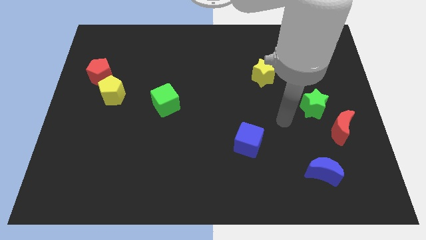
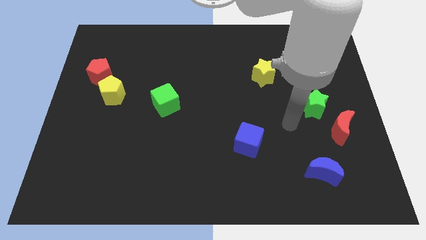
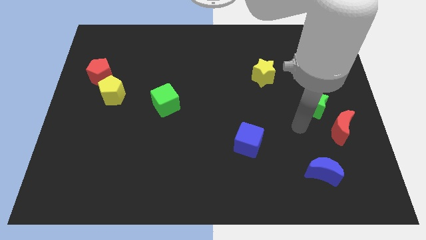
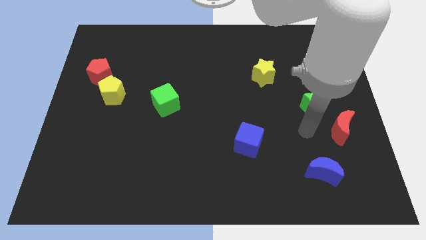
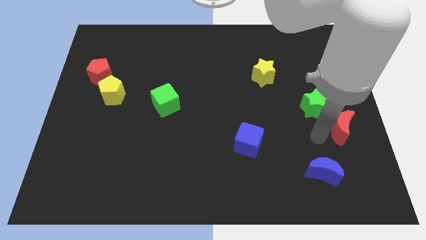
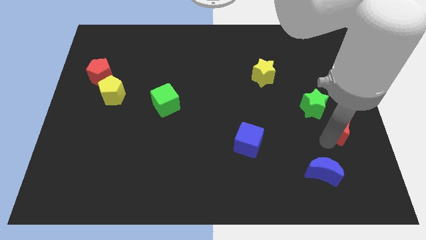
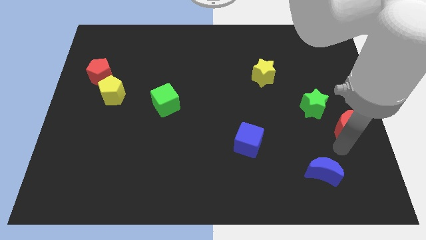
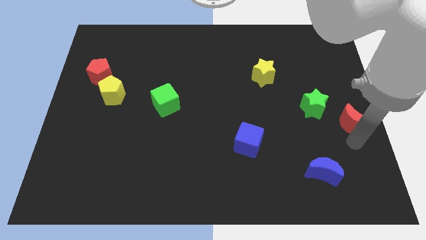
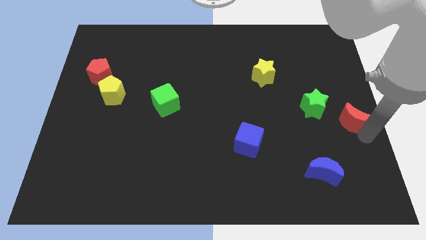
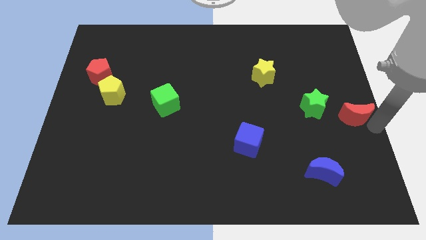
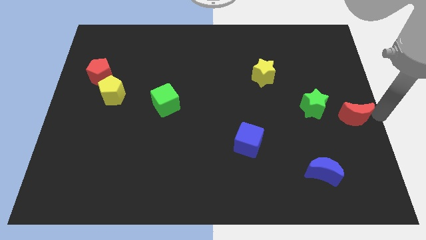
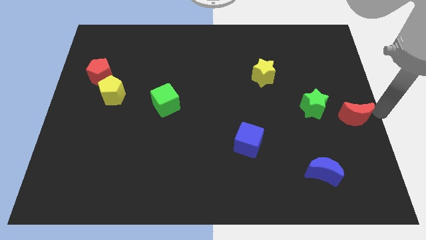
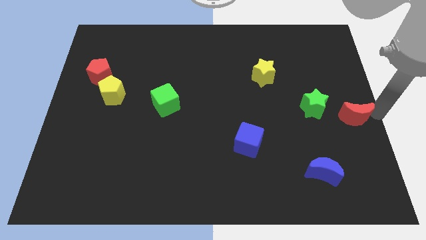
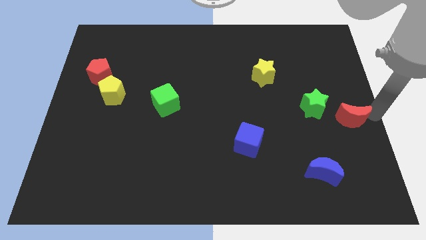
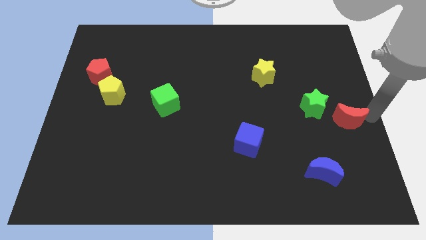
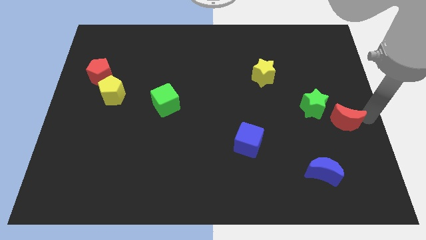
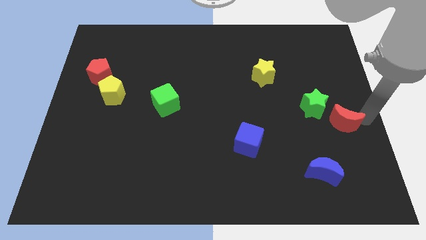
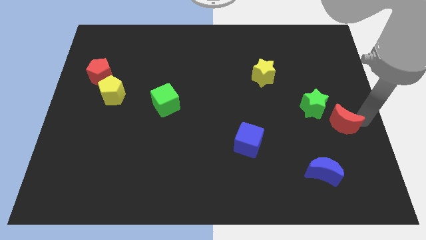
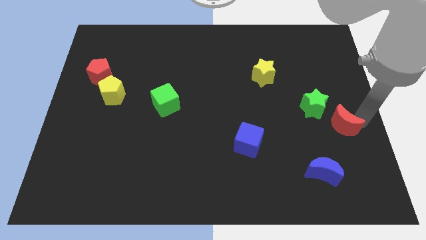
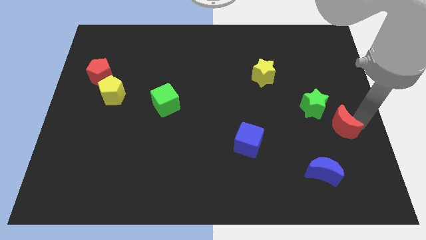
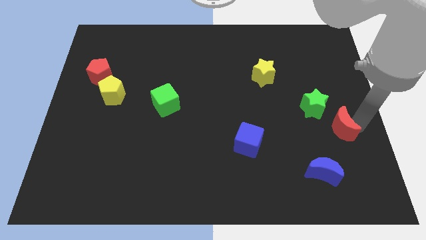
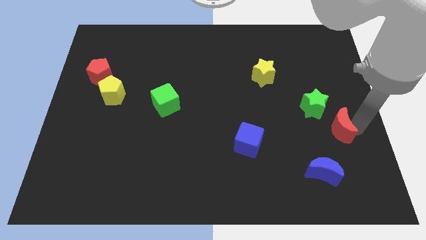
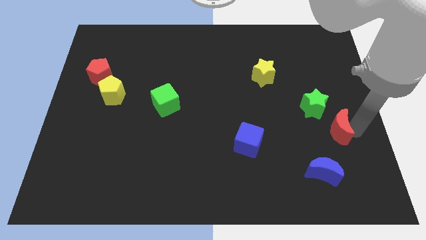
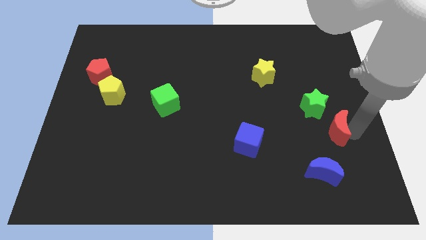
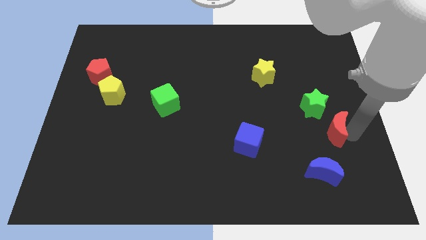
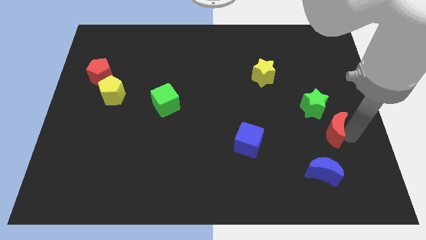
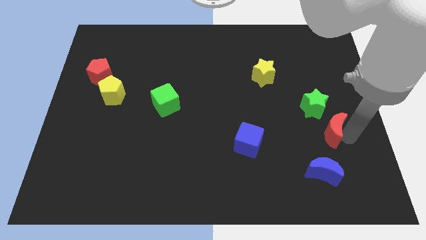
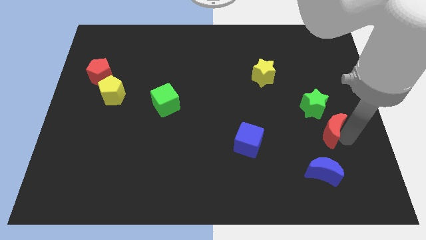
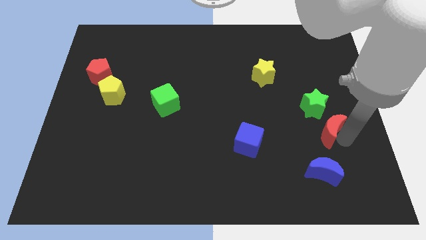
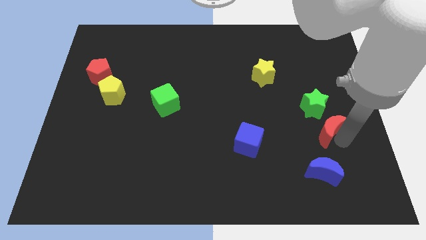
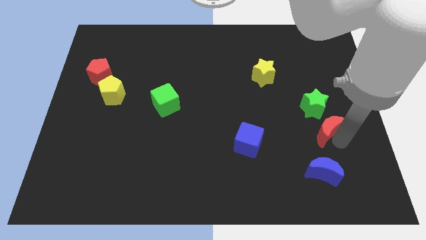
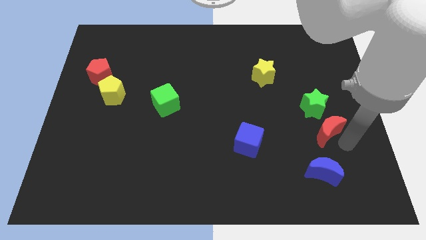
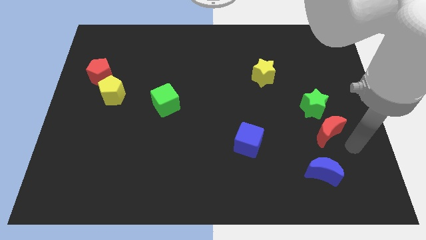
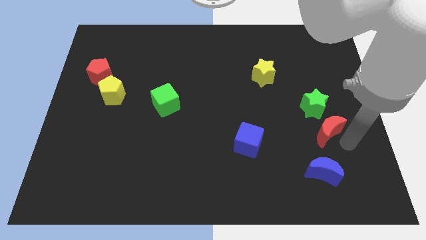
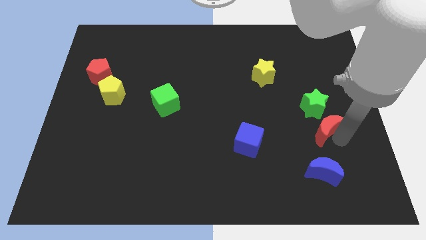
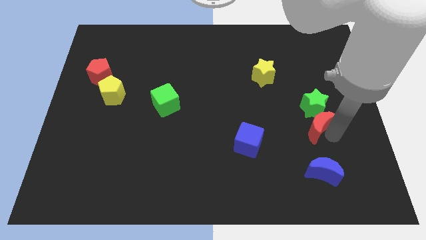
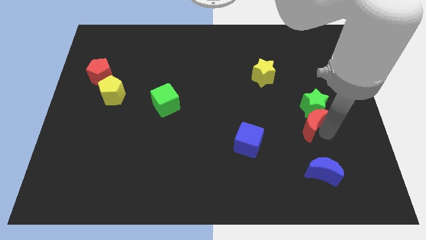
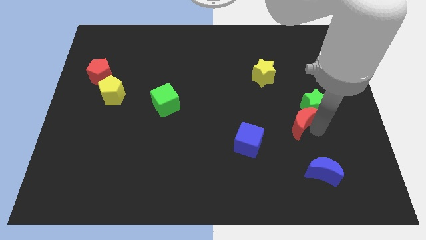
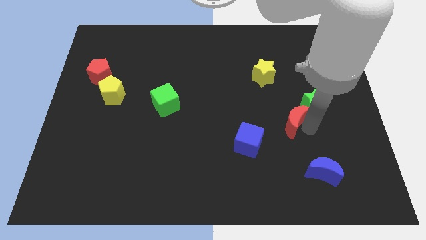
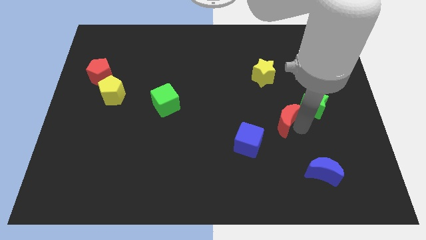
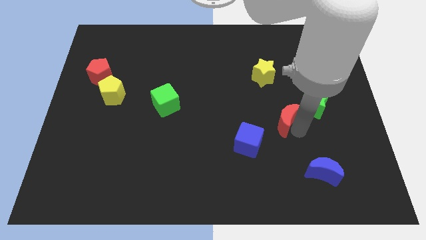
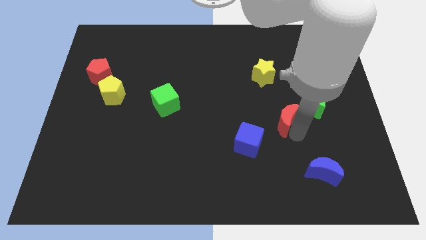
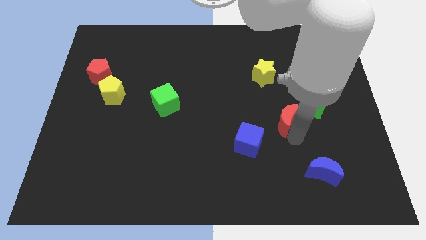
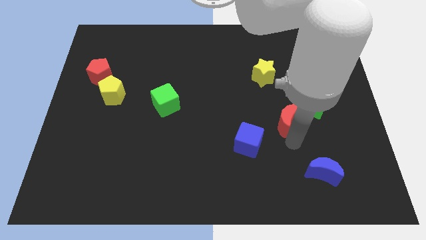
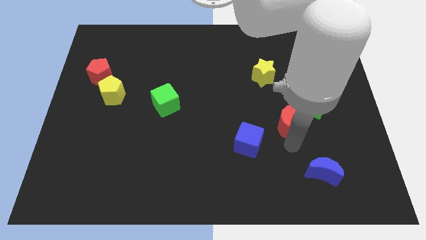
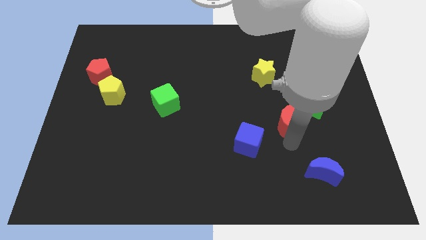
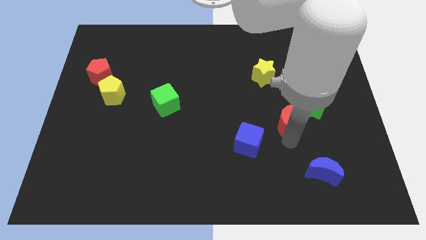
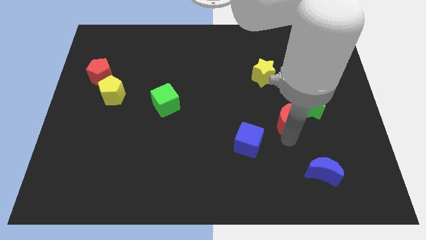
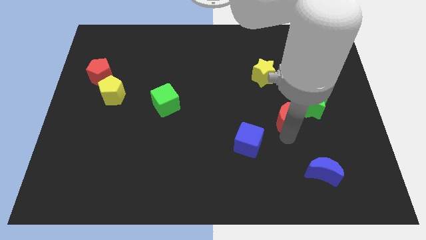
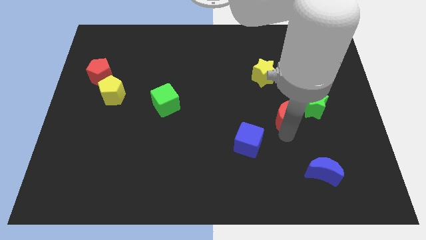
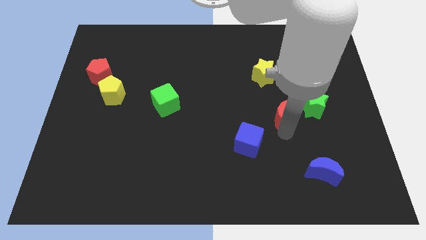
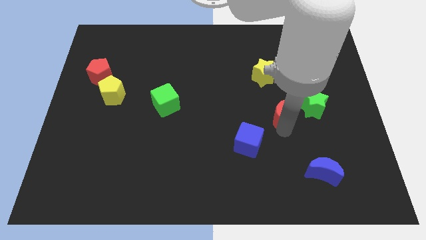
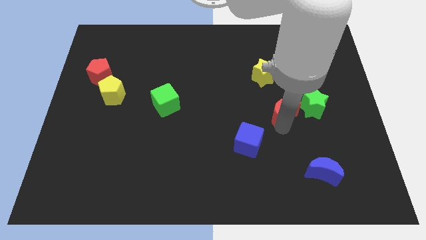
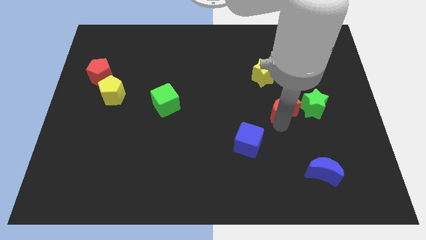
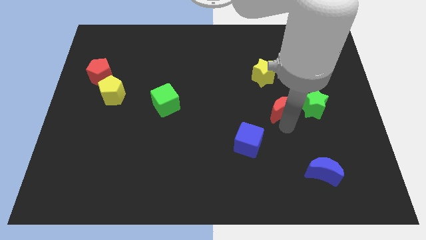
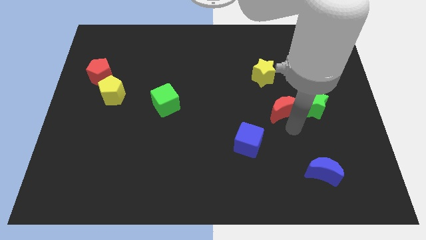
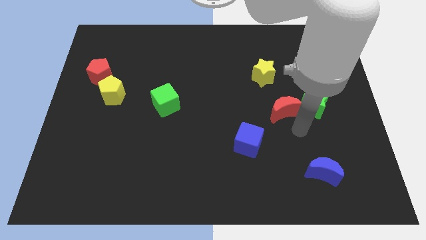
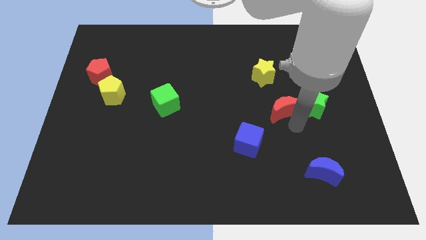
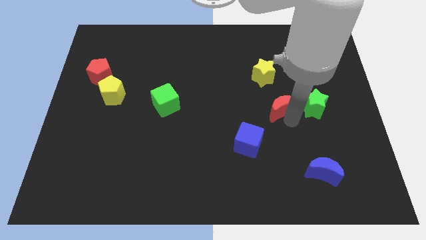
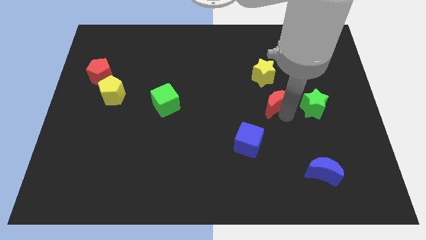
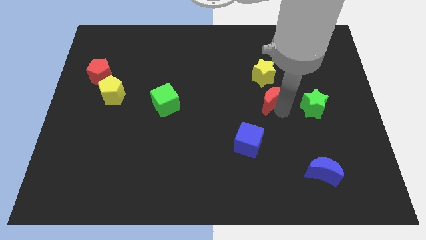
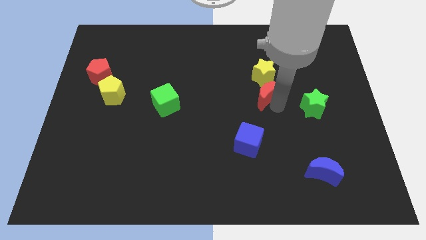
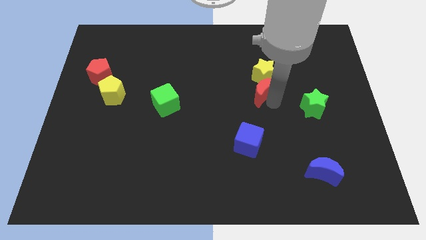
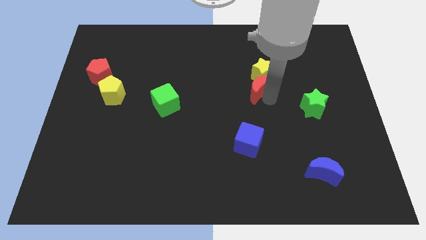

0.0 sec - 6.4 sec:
move the red moon up and left diagonally

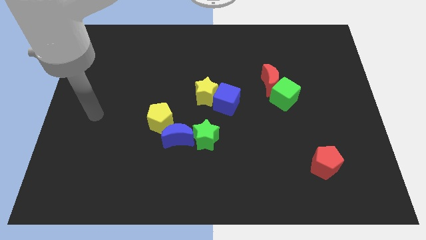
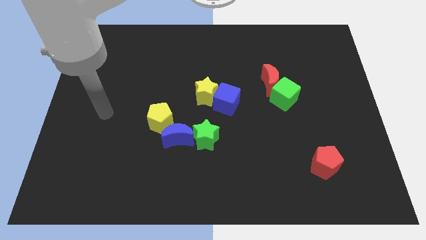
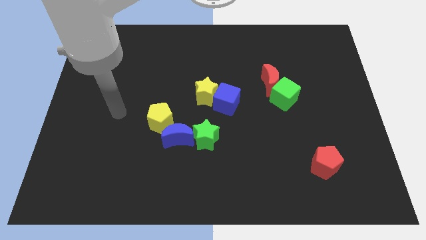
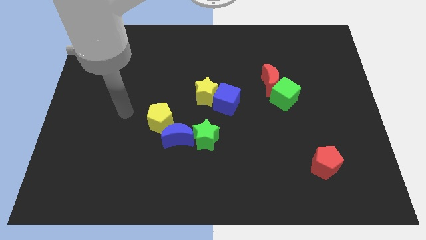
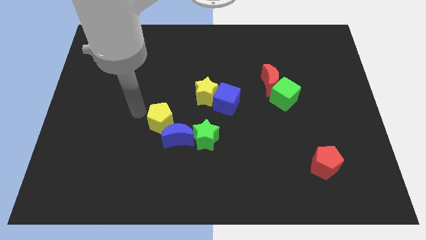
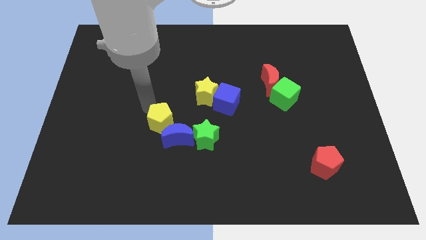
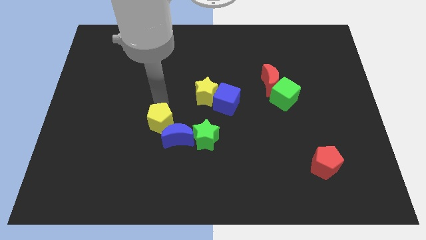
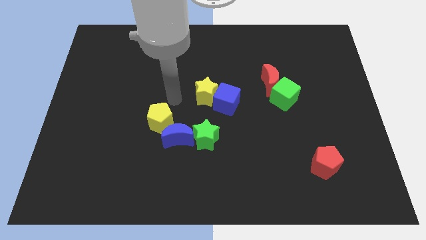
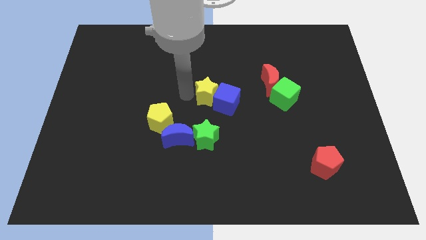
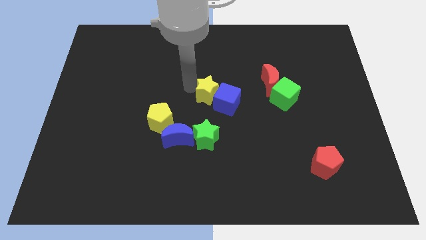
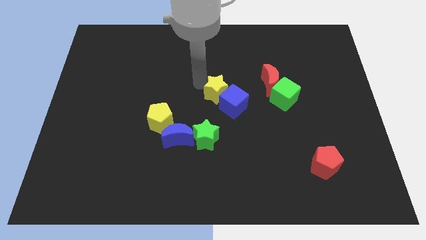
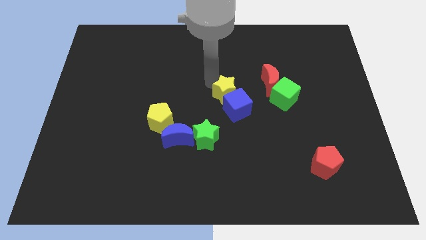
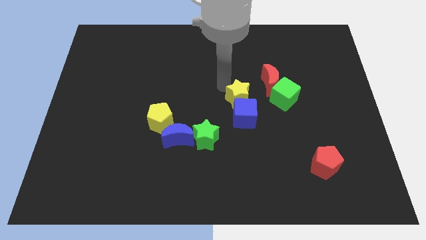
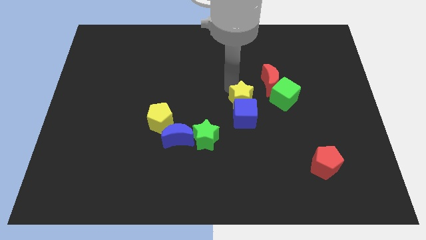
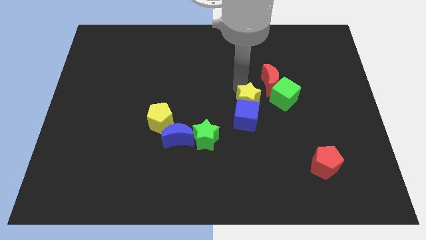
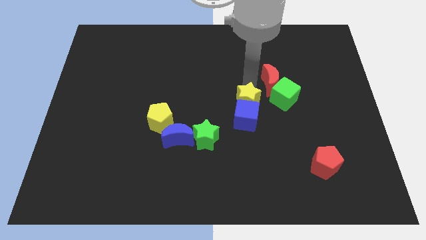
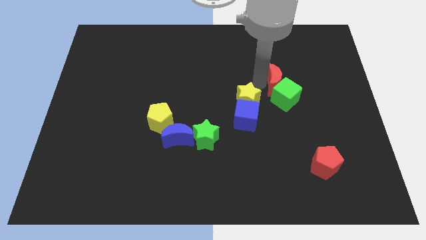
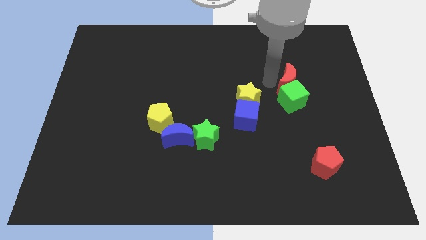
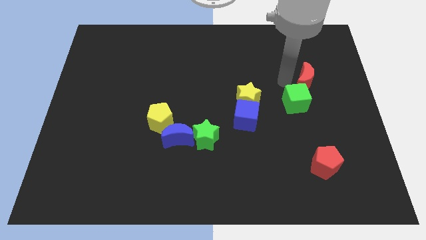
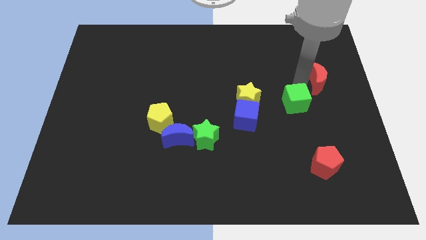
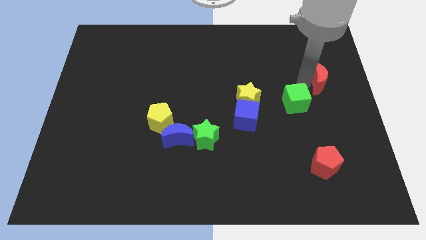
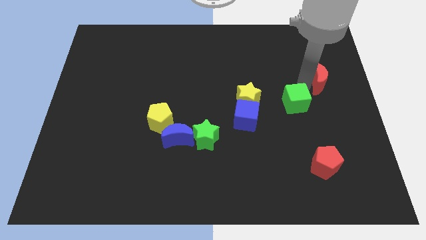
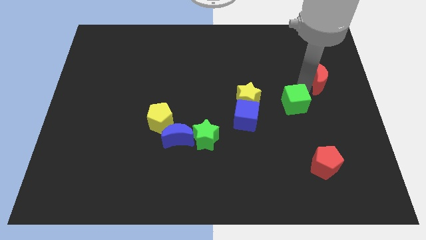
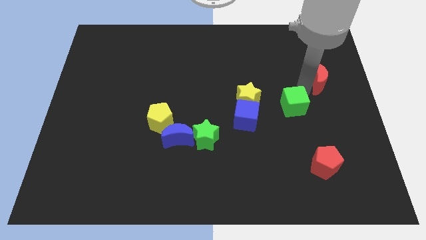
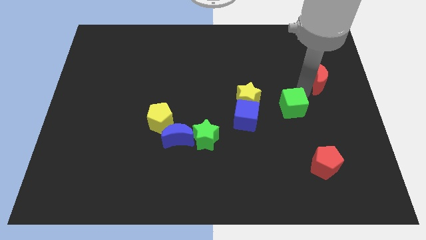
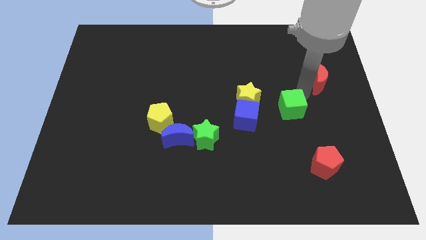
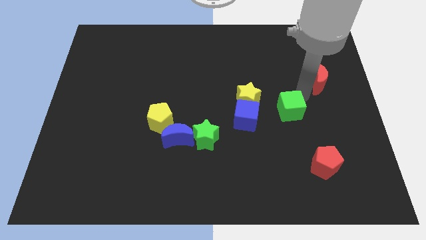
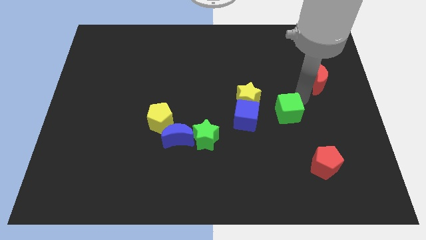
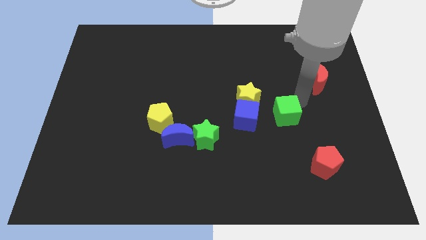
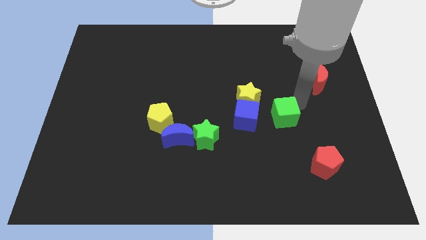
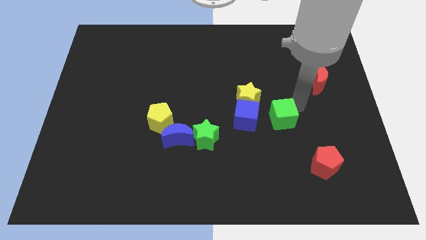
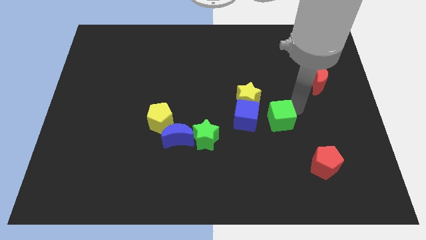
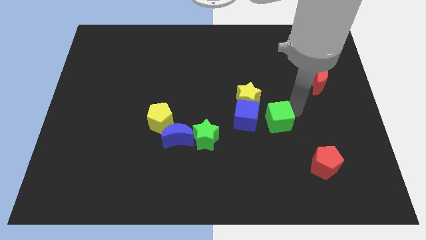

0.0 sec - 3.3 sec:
move the green cube a bit down
